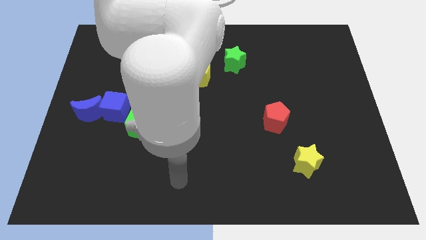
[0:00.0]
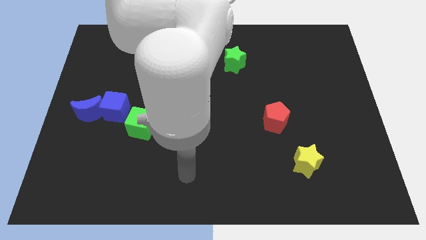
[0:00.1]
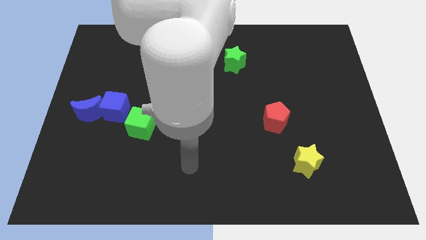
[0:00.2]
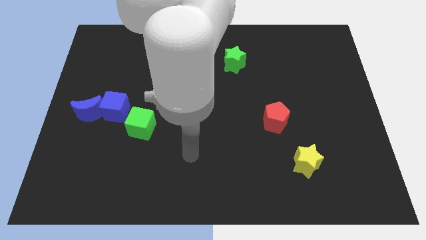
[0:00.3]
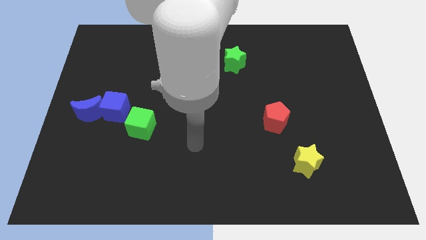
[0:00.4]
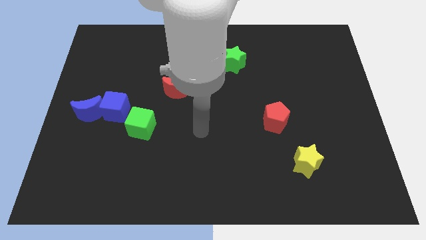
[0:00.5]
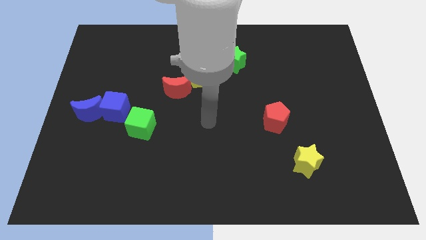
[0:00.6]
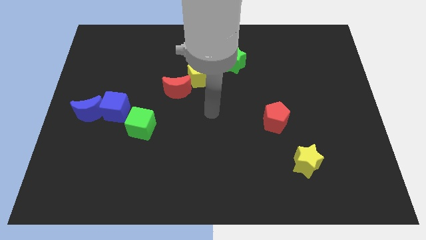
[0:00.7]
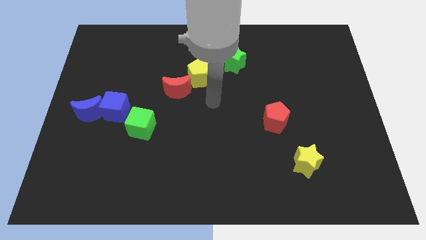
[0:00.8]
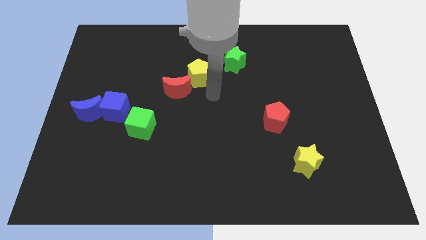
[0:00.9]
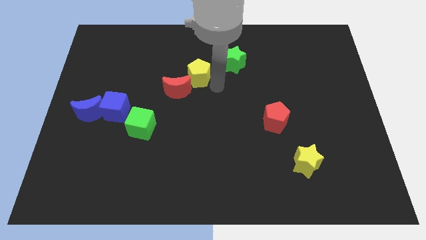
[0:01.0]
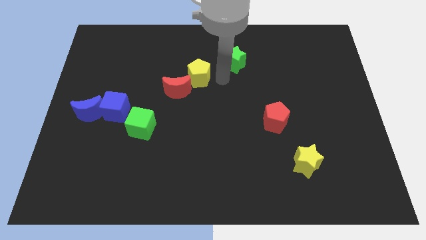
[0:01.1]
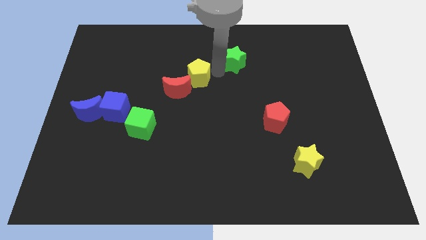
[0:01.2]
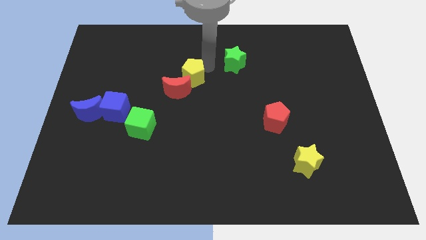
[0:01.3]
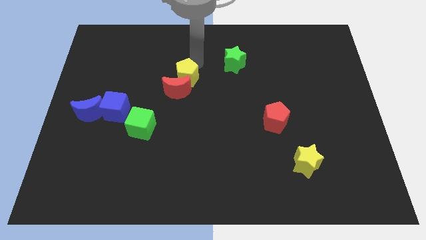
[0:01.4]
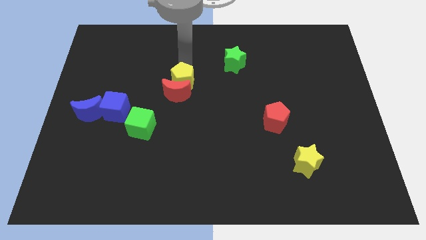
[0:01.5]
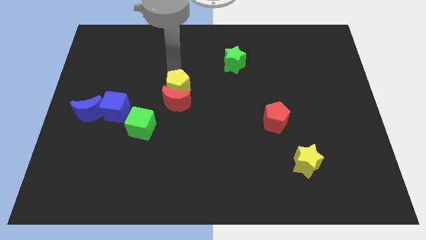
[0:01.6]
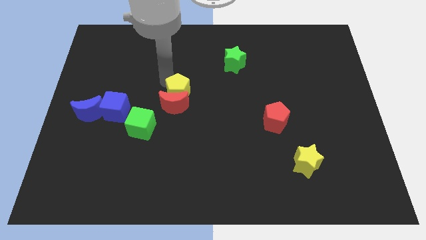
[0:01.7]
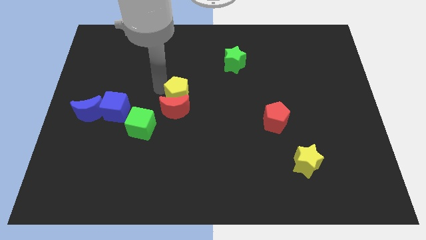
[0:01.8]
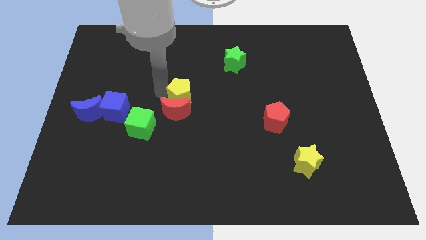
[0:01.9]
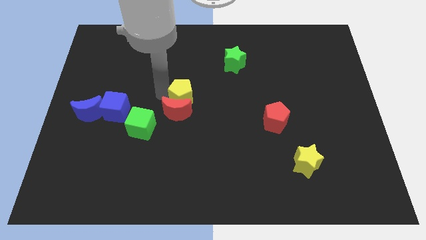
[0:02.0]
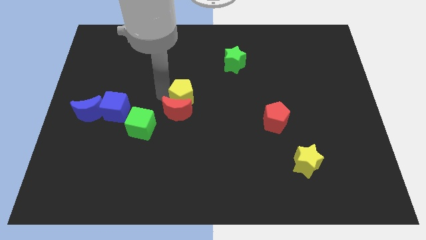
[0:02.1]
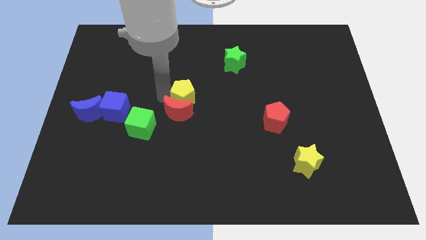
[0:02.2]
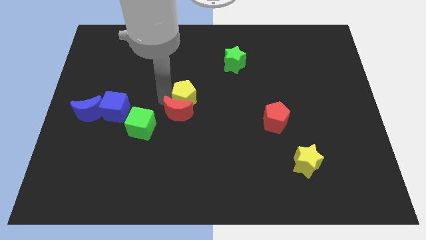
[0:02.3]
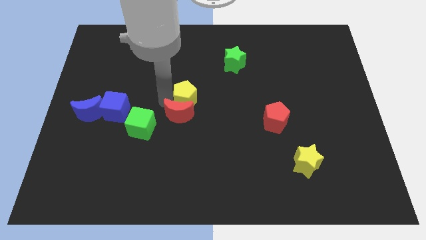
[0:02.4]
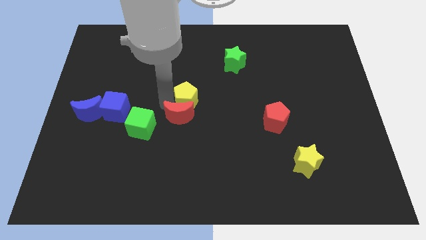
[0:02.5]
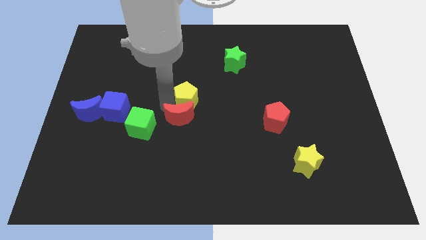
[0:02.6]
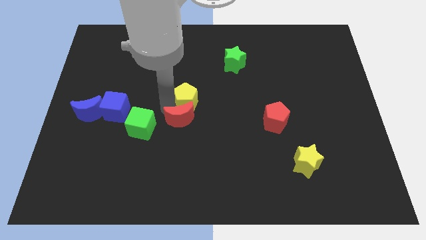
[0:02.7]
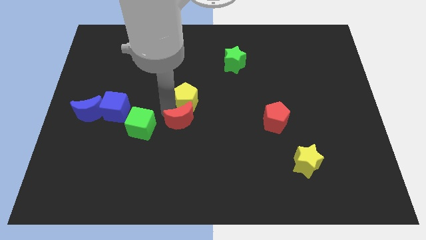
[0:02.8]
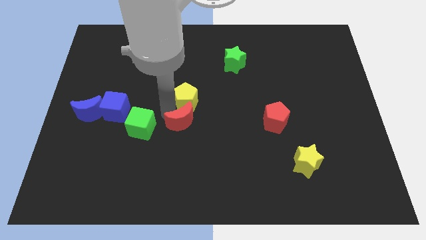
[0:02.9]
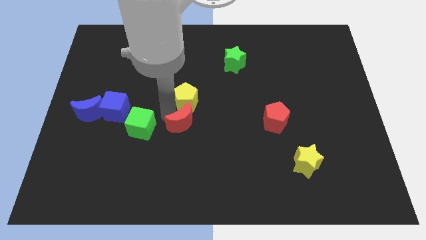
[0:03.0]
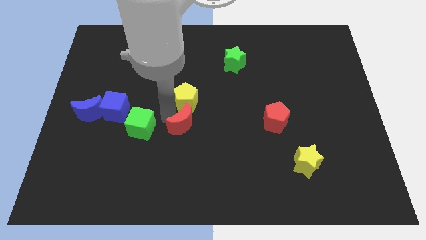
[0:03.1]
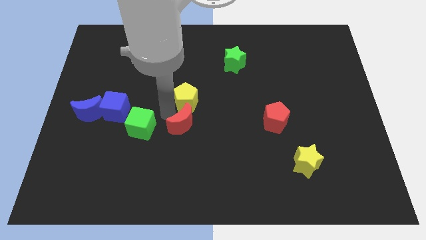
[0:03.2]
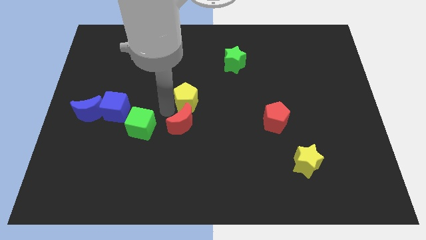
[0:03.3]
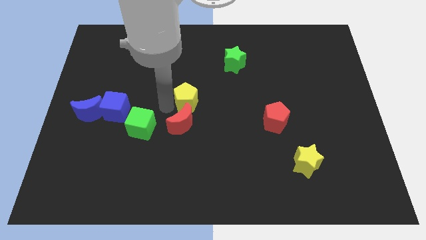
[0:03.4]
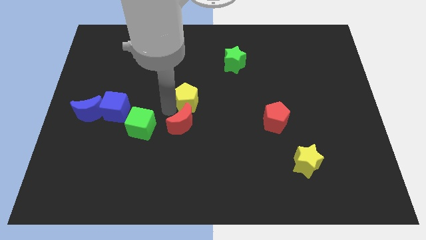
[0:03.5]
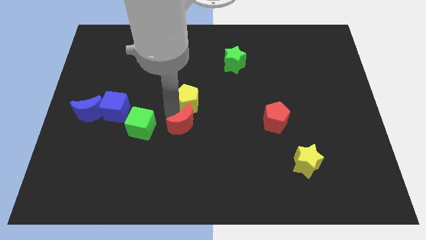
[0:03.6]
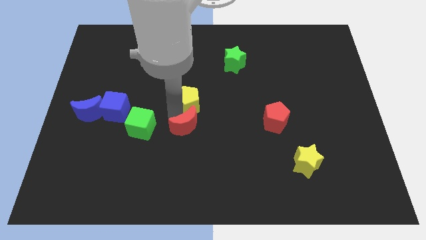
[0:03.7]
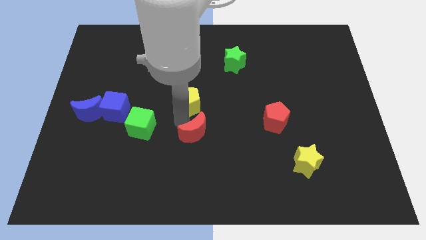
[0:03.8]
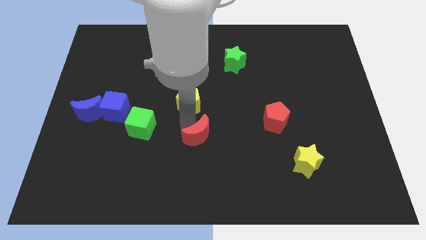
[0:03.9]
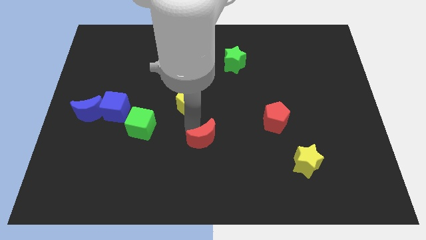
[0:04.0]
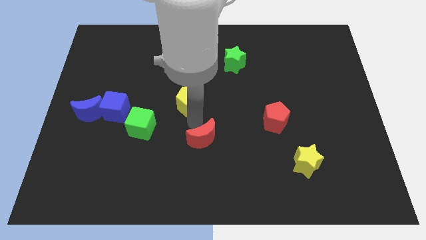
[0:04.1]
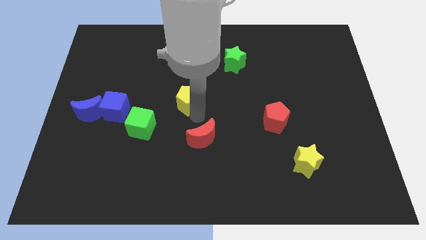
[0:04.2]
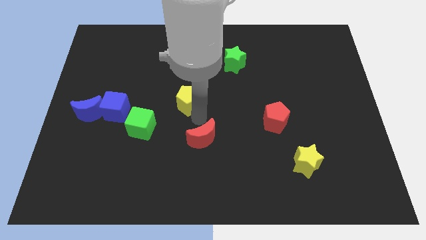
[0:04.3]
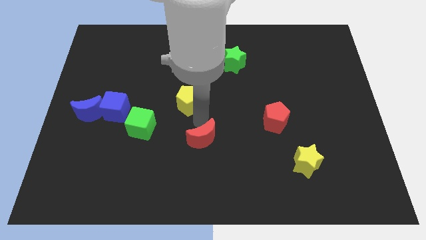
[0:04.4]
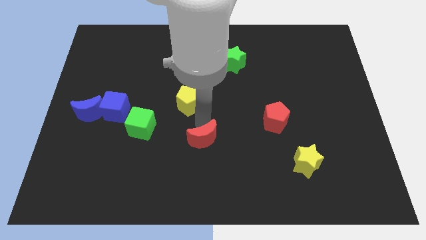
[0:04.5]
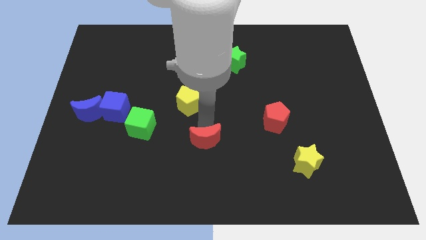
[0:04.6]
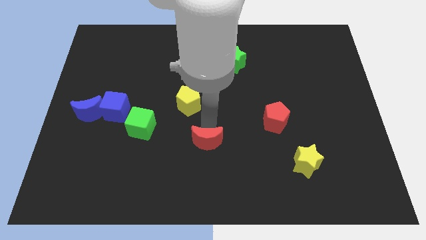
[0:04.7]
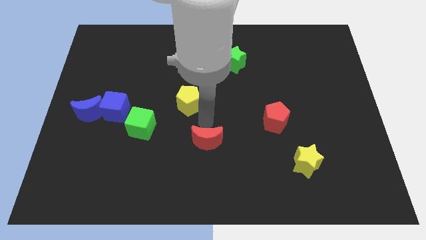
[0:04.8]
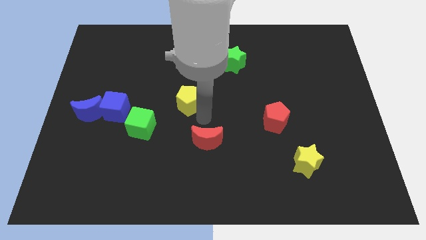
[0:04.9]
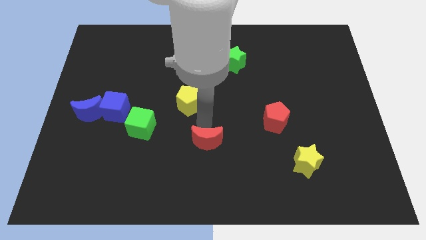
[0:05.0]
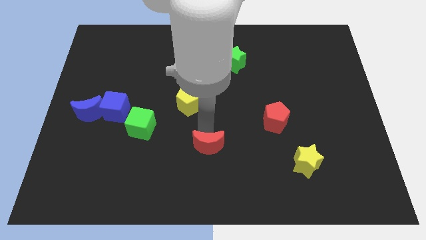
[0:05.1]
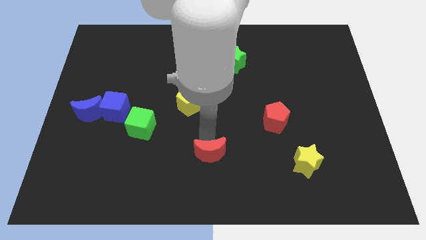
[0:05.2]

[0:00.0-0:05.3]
slide the red moon to the bottom
